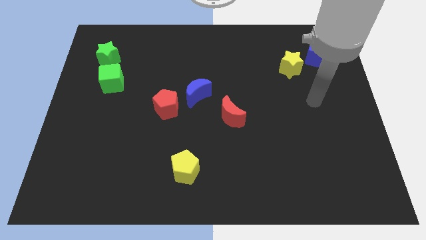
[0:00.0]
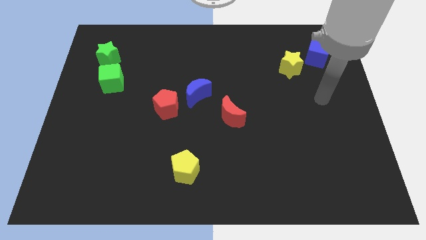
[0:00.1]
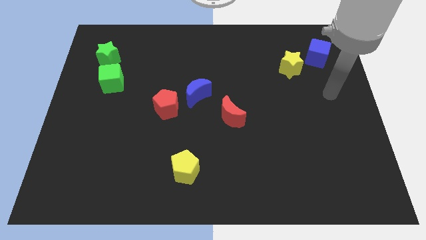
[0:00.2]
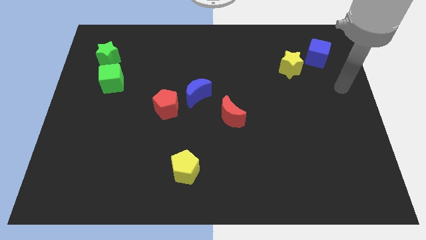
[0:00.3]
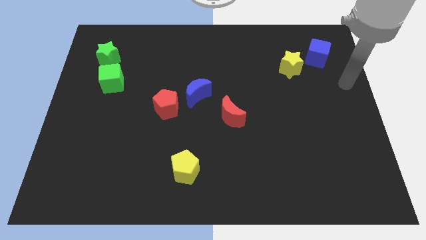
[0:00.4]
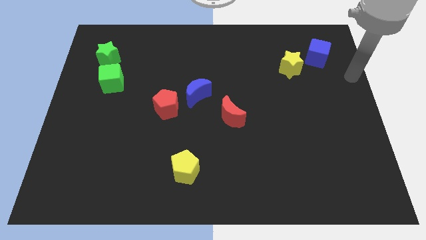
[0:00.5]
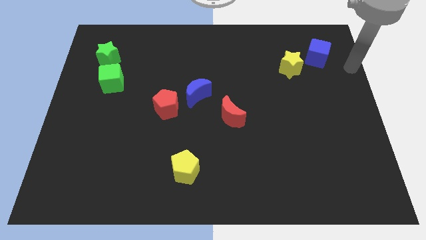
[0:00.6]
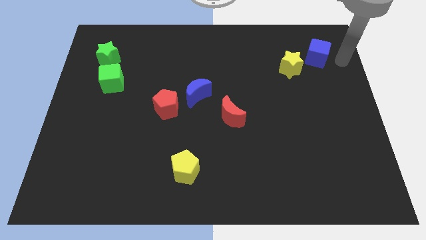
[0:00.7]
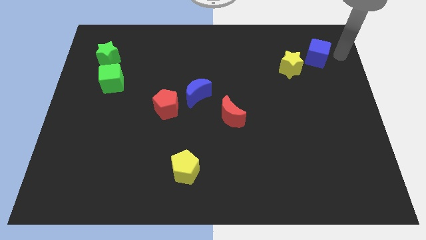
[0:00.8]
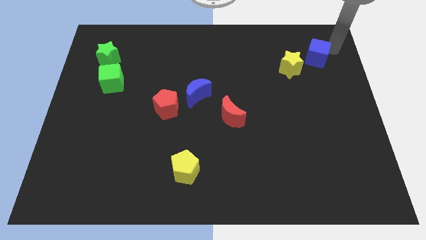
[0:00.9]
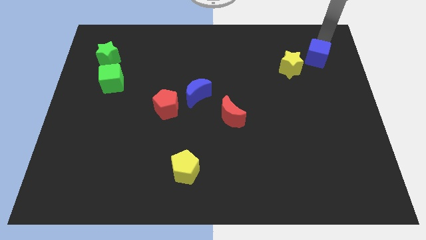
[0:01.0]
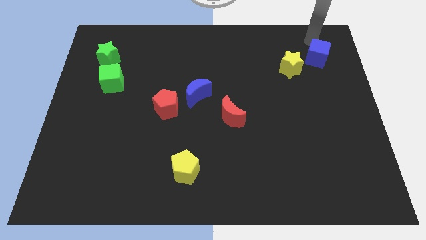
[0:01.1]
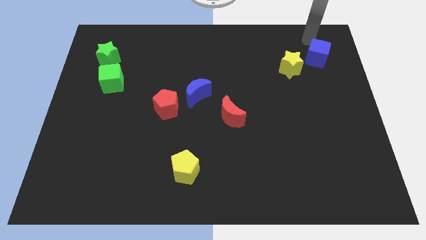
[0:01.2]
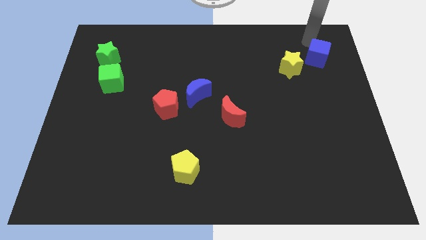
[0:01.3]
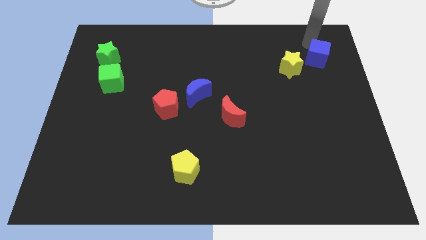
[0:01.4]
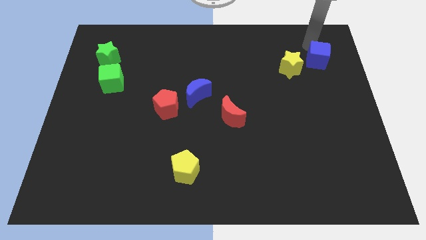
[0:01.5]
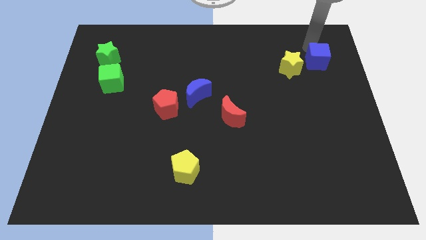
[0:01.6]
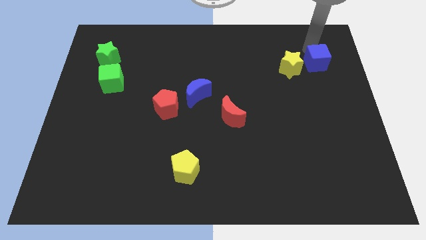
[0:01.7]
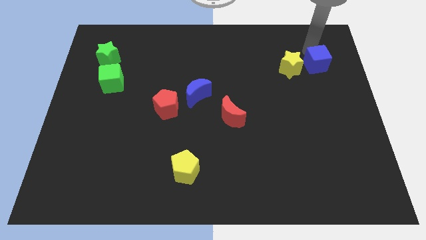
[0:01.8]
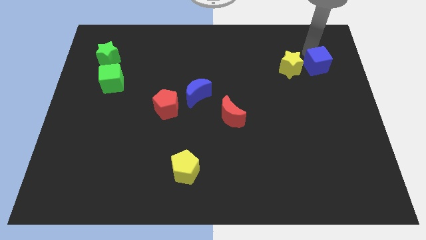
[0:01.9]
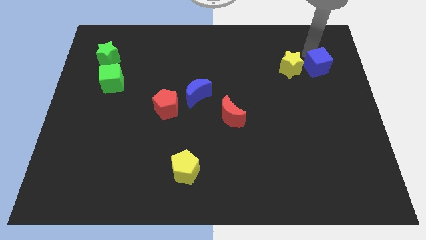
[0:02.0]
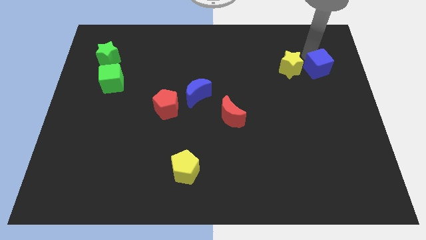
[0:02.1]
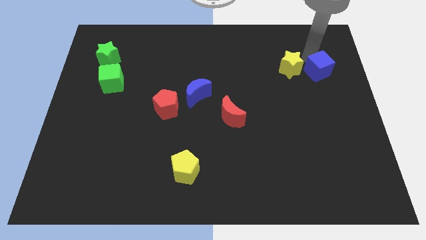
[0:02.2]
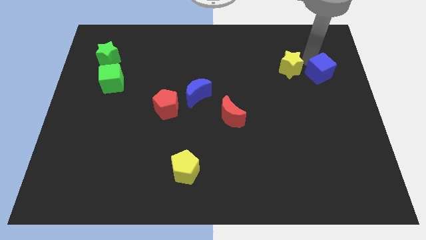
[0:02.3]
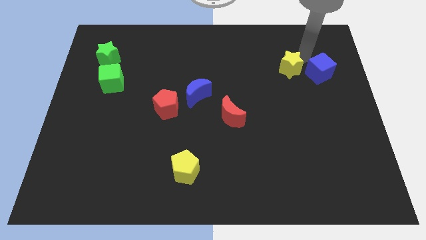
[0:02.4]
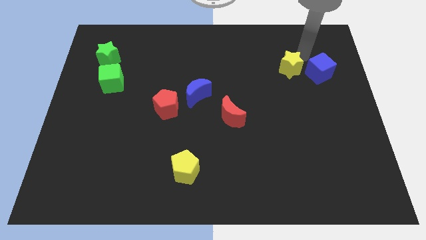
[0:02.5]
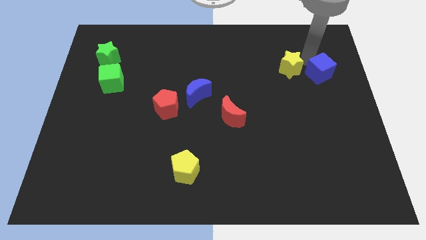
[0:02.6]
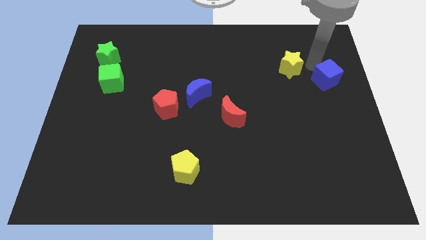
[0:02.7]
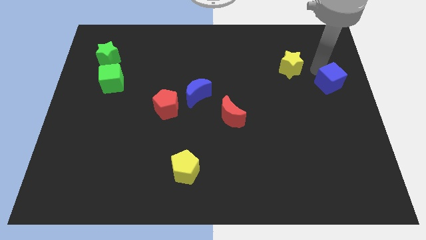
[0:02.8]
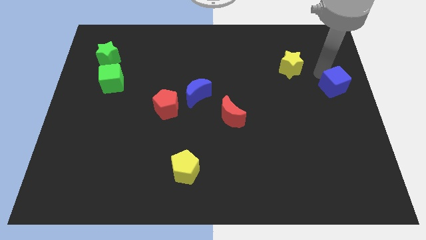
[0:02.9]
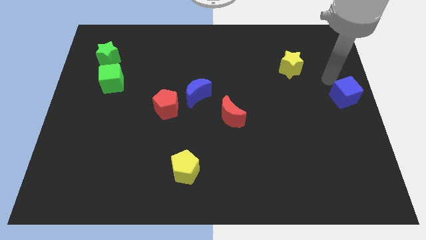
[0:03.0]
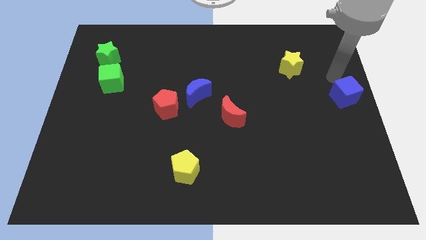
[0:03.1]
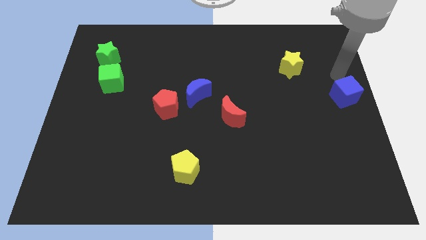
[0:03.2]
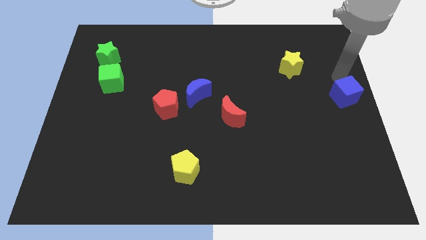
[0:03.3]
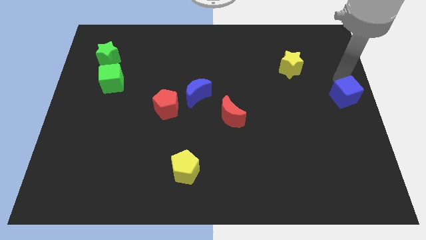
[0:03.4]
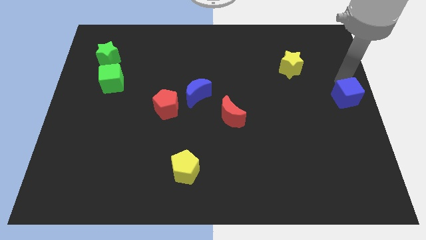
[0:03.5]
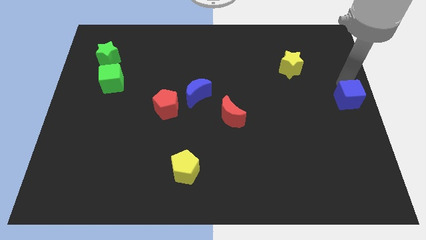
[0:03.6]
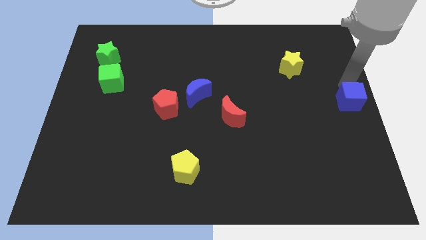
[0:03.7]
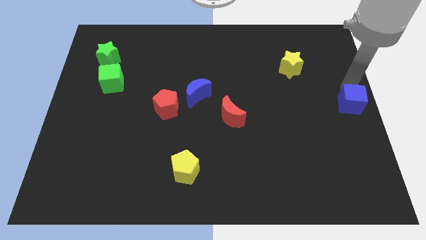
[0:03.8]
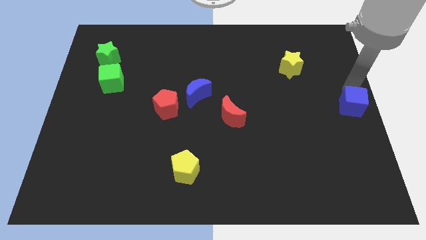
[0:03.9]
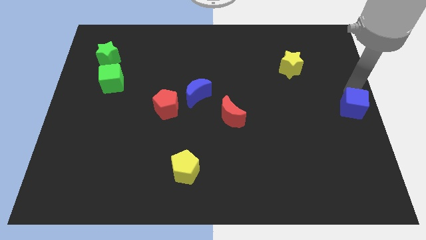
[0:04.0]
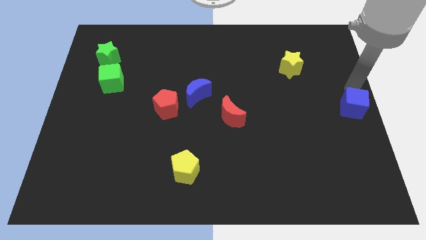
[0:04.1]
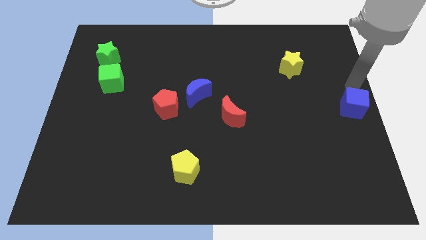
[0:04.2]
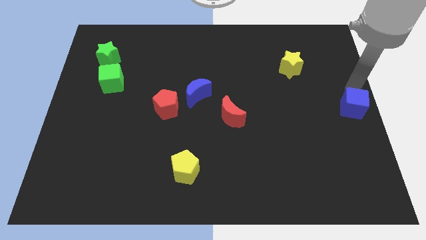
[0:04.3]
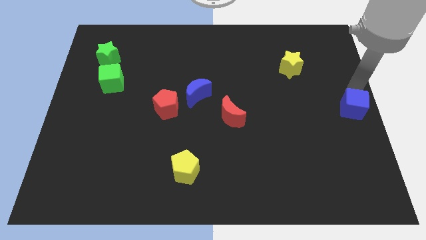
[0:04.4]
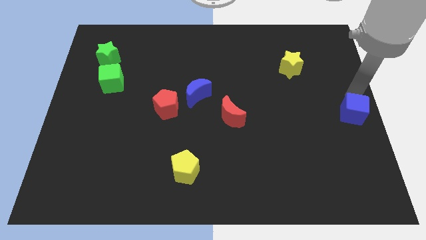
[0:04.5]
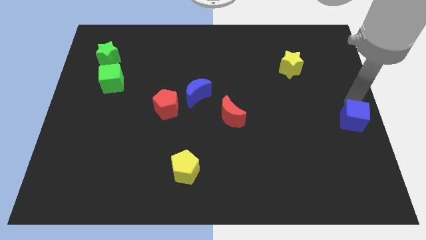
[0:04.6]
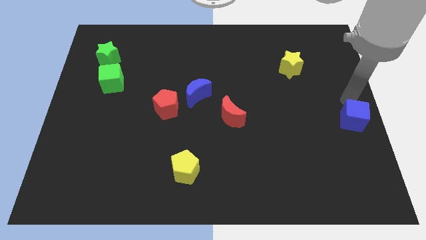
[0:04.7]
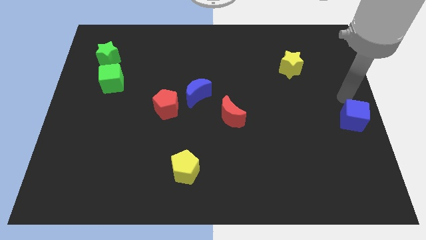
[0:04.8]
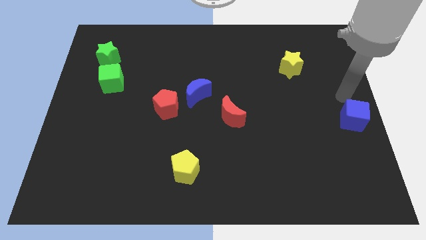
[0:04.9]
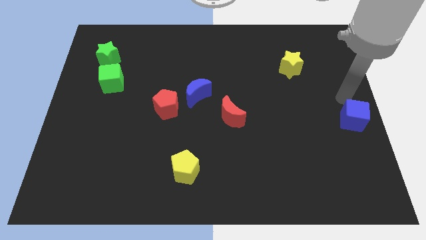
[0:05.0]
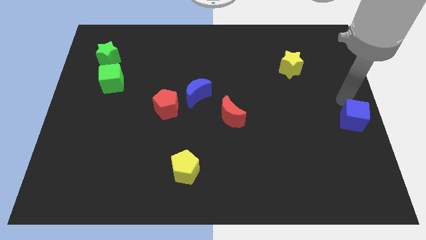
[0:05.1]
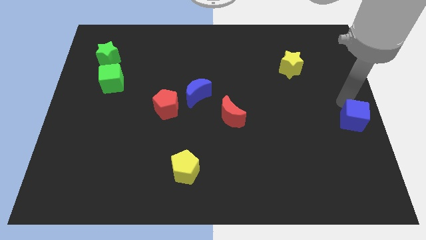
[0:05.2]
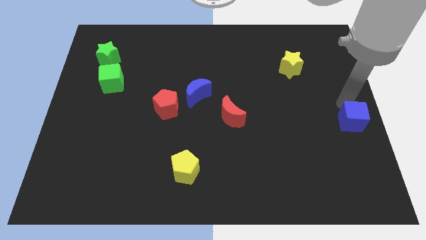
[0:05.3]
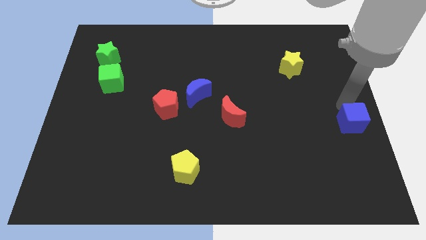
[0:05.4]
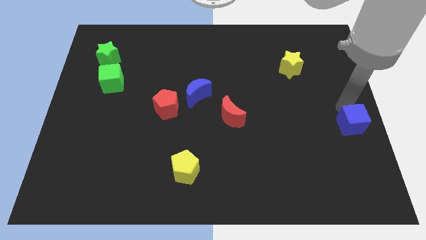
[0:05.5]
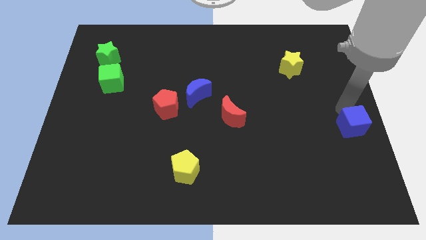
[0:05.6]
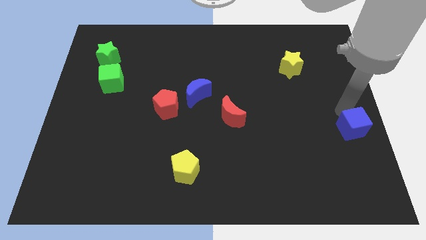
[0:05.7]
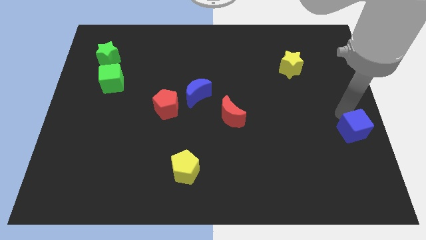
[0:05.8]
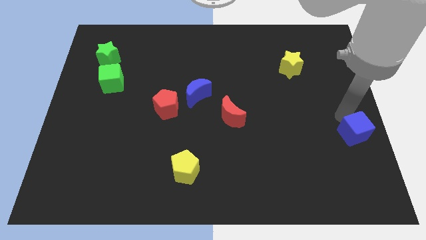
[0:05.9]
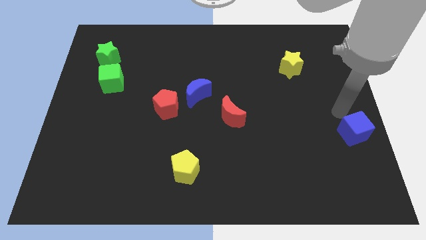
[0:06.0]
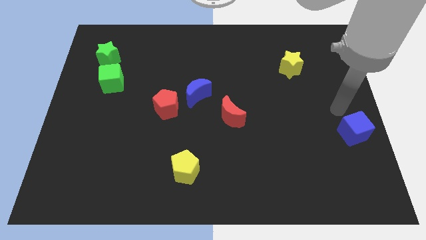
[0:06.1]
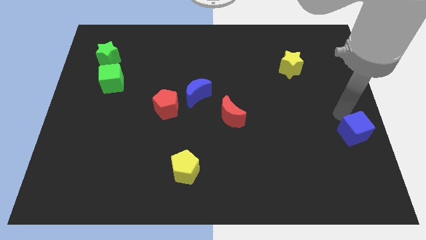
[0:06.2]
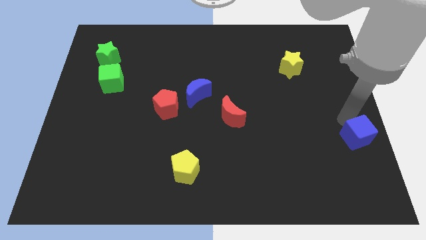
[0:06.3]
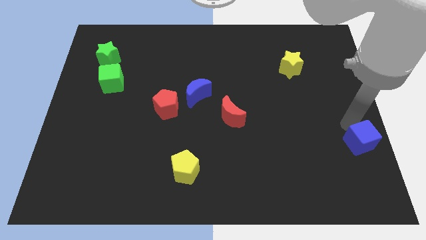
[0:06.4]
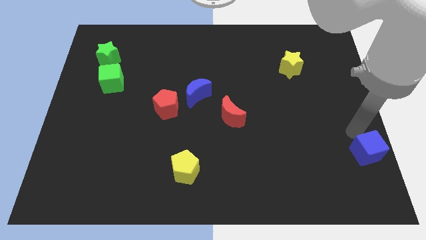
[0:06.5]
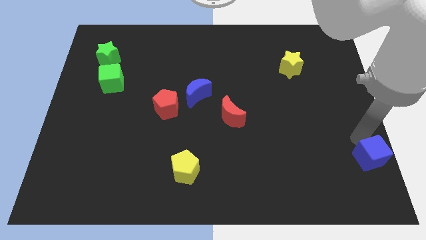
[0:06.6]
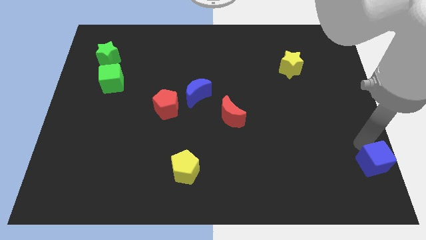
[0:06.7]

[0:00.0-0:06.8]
move the blue cube to the bottom right of the board

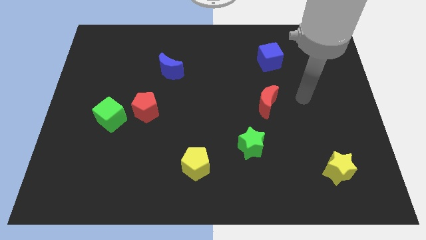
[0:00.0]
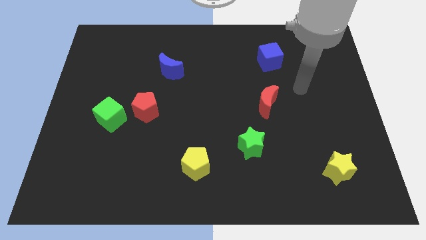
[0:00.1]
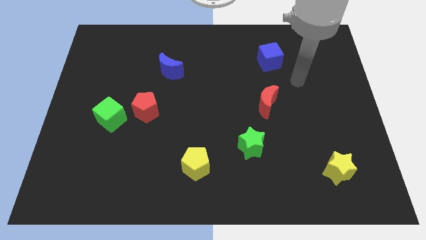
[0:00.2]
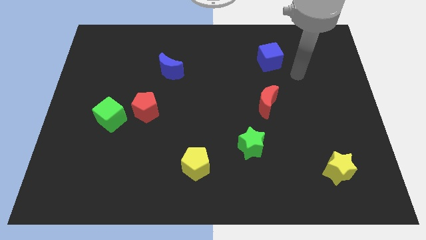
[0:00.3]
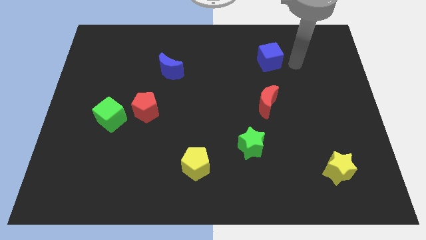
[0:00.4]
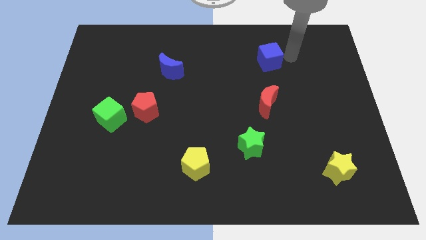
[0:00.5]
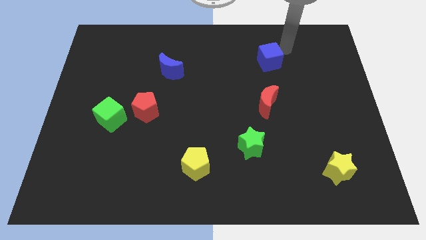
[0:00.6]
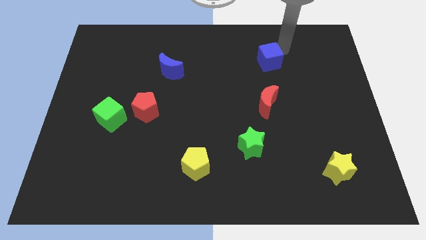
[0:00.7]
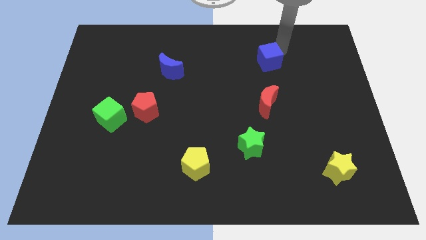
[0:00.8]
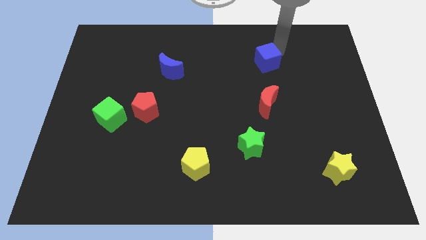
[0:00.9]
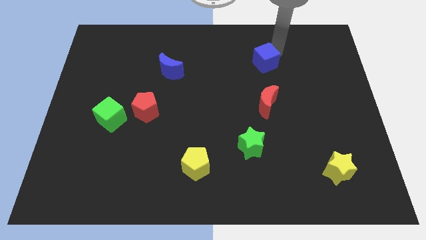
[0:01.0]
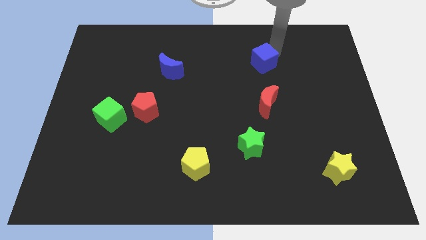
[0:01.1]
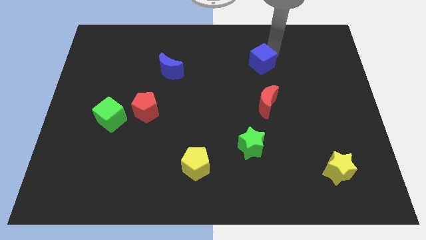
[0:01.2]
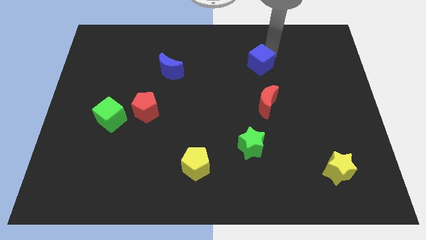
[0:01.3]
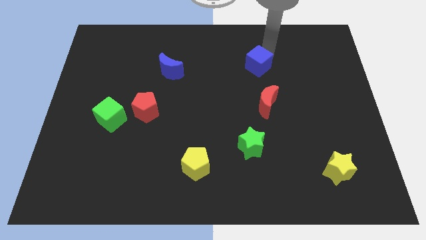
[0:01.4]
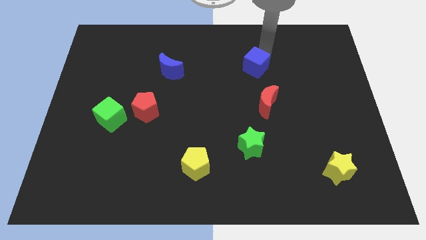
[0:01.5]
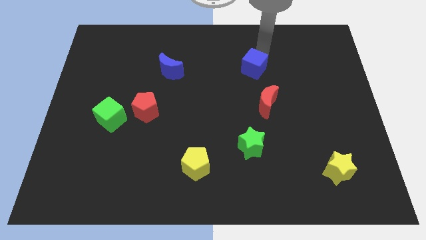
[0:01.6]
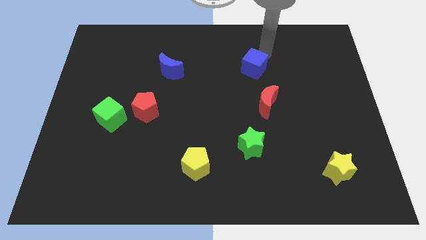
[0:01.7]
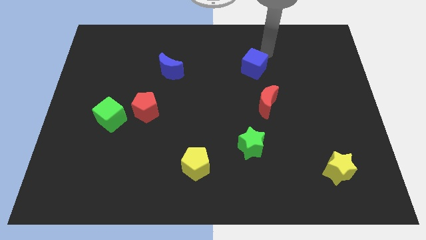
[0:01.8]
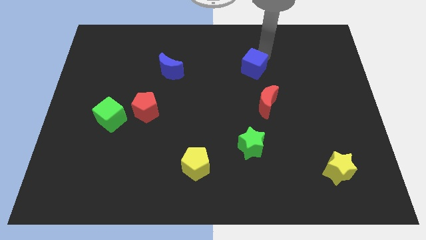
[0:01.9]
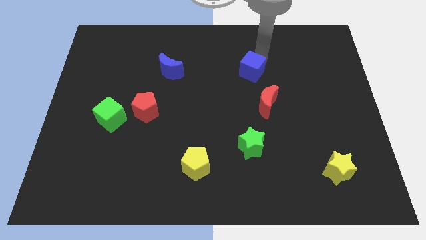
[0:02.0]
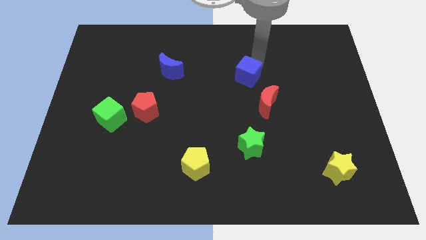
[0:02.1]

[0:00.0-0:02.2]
move the blue cube to the middle of the board
